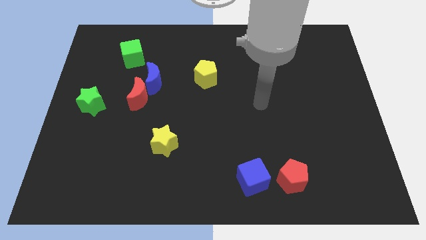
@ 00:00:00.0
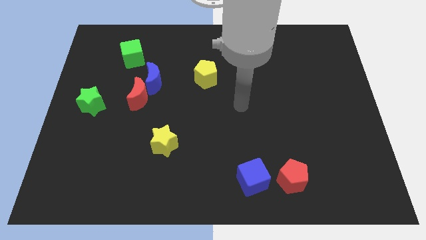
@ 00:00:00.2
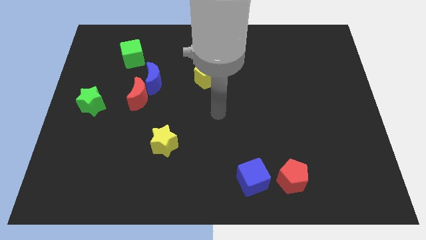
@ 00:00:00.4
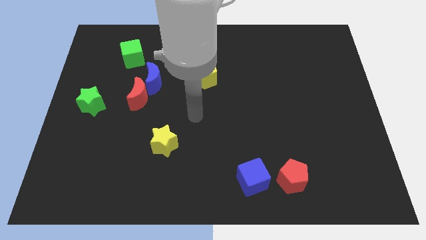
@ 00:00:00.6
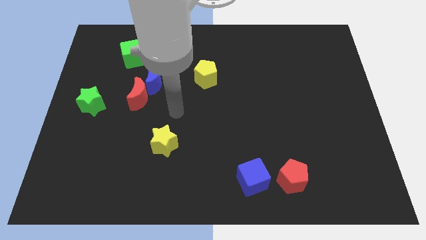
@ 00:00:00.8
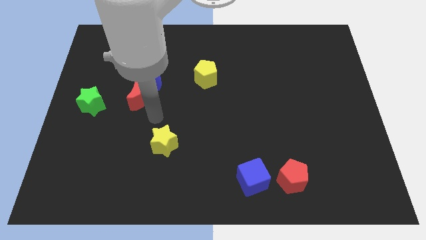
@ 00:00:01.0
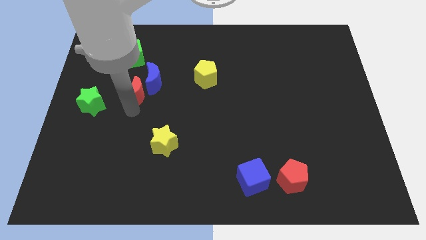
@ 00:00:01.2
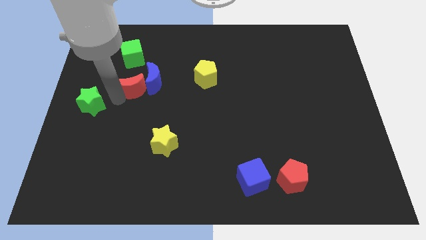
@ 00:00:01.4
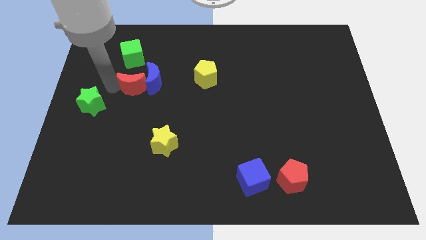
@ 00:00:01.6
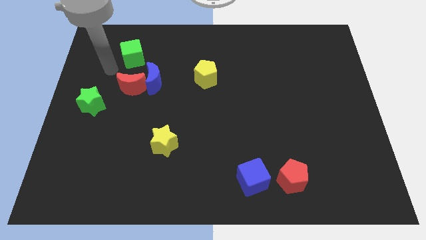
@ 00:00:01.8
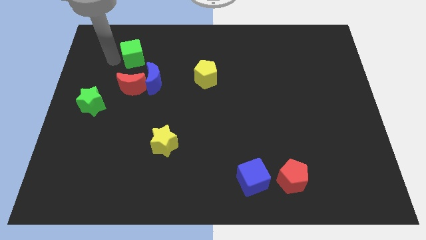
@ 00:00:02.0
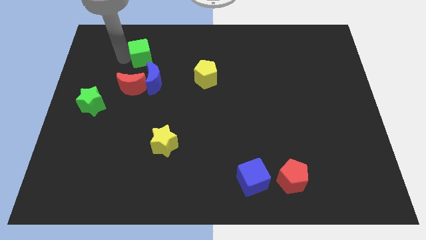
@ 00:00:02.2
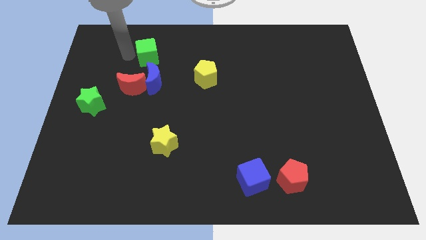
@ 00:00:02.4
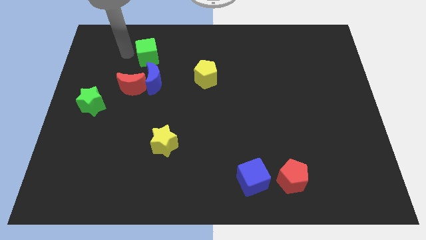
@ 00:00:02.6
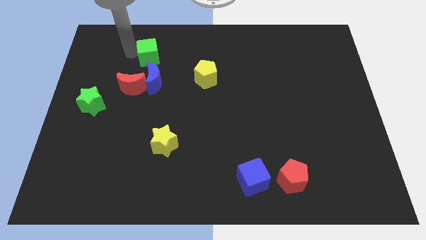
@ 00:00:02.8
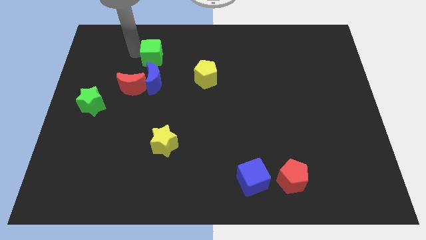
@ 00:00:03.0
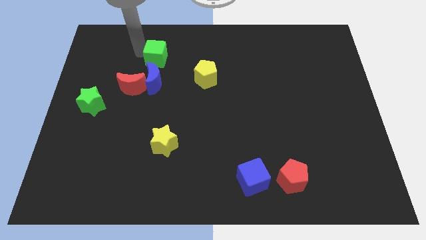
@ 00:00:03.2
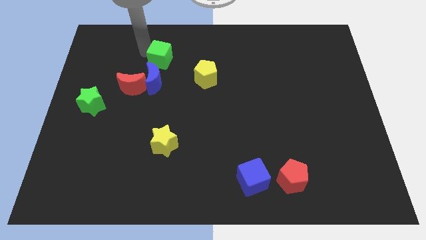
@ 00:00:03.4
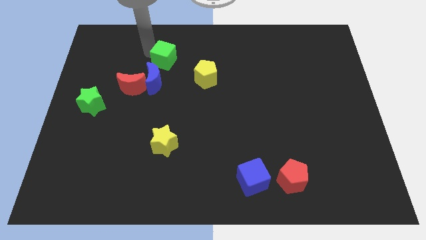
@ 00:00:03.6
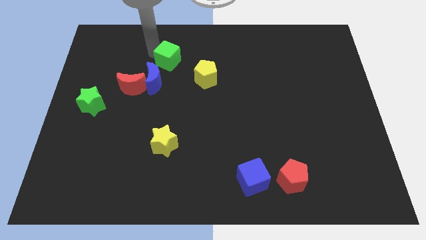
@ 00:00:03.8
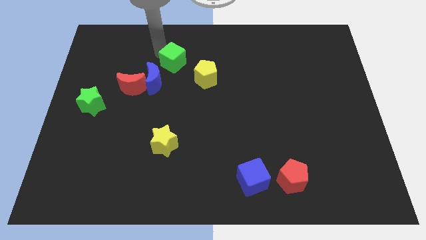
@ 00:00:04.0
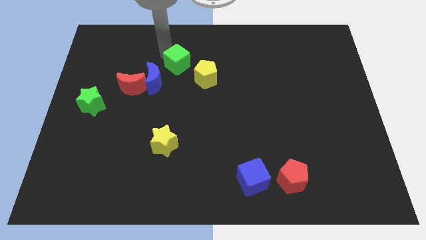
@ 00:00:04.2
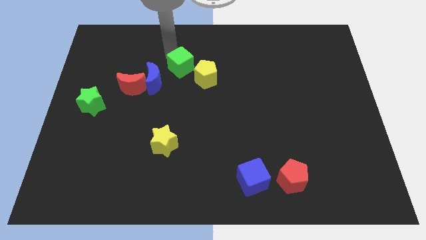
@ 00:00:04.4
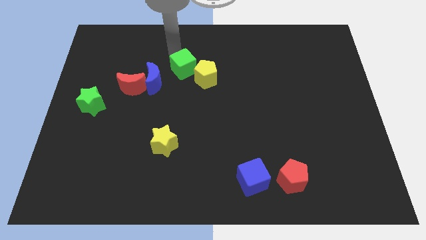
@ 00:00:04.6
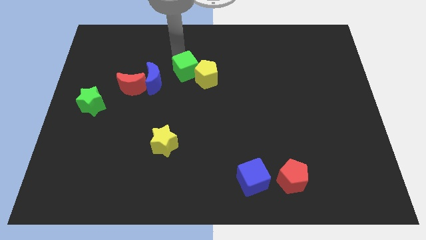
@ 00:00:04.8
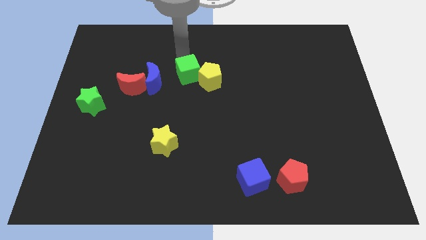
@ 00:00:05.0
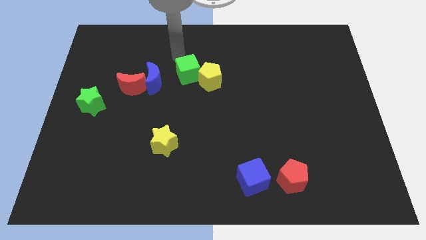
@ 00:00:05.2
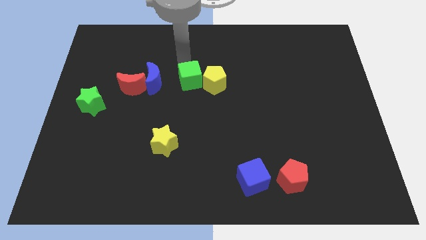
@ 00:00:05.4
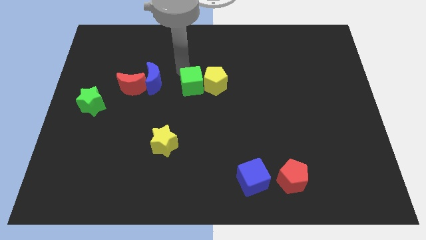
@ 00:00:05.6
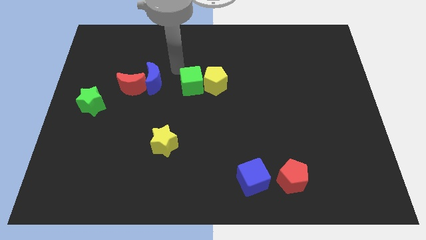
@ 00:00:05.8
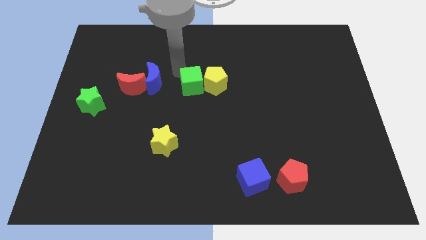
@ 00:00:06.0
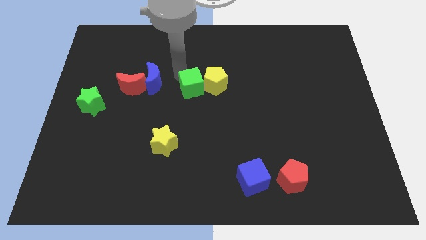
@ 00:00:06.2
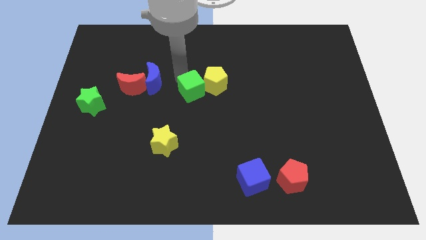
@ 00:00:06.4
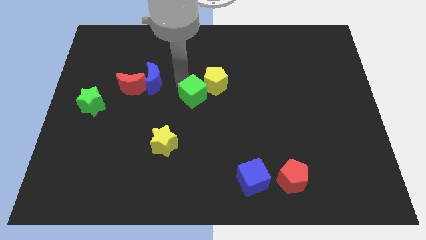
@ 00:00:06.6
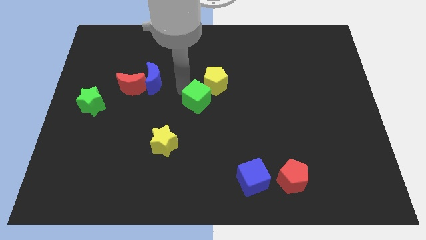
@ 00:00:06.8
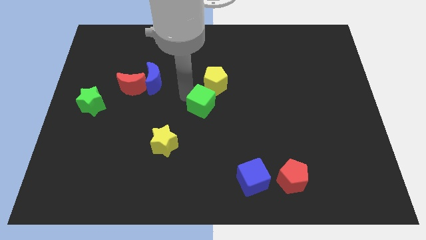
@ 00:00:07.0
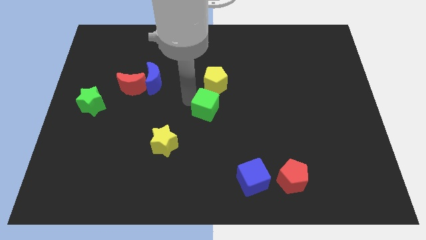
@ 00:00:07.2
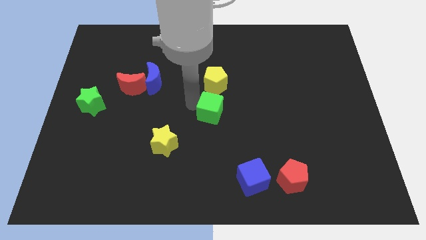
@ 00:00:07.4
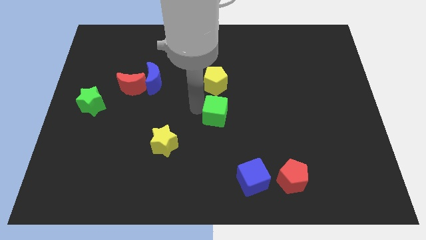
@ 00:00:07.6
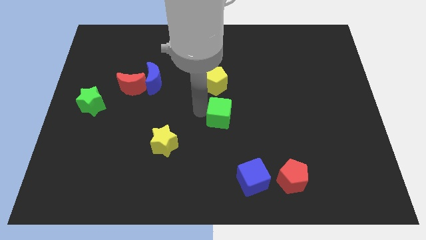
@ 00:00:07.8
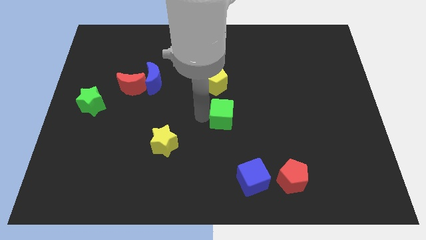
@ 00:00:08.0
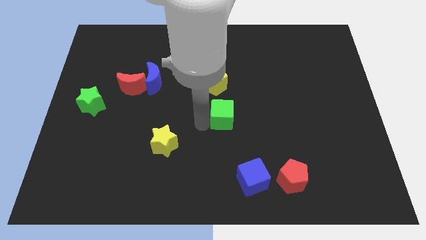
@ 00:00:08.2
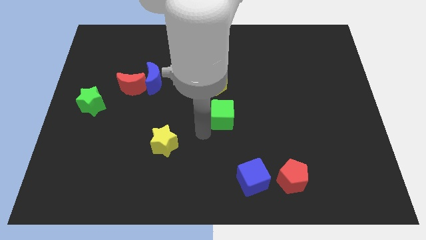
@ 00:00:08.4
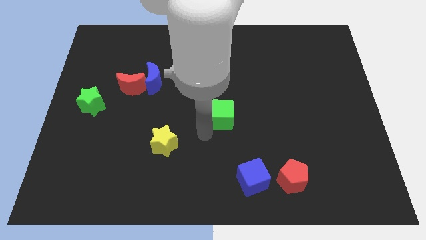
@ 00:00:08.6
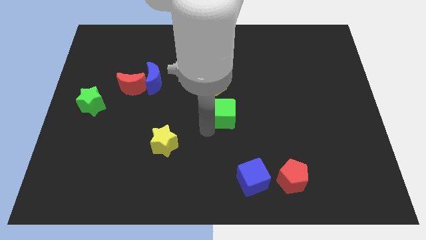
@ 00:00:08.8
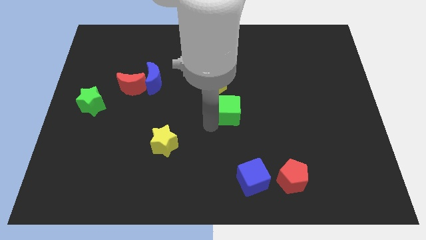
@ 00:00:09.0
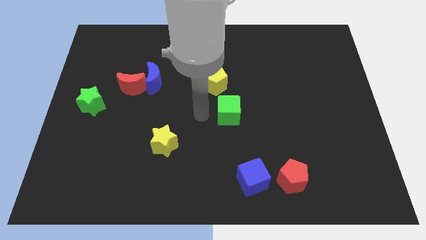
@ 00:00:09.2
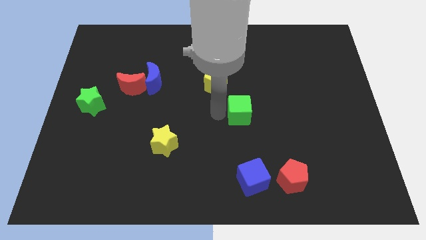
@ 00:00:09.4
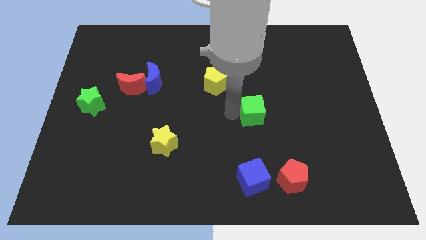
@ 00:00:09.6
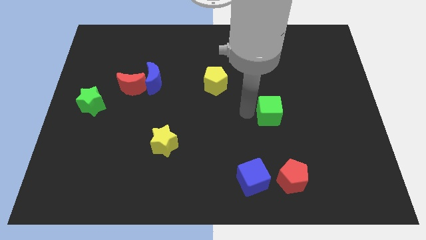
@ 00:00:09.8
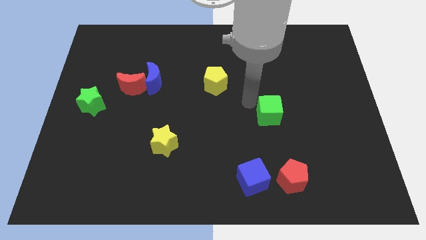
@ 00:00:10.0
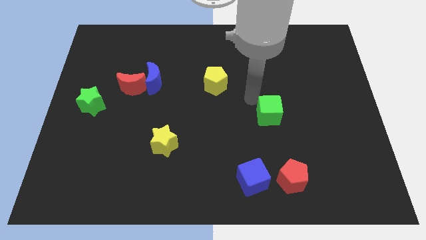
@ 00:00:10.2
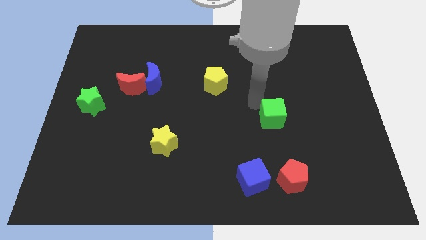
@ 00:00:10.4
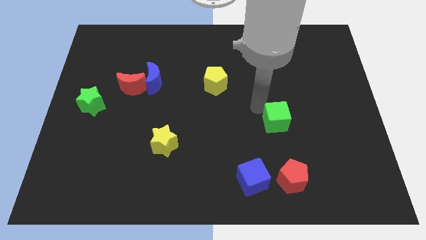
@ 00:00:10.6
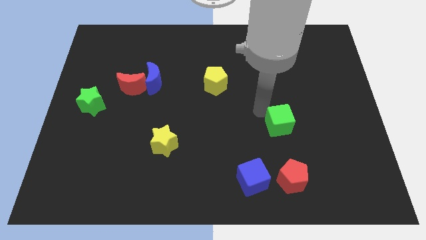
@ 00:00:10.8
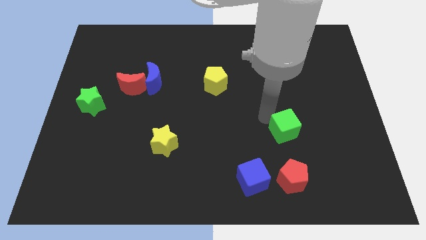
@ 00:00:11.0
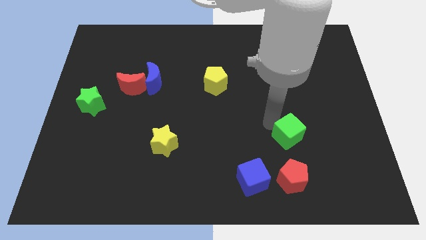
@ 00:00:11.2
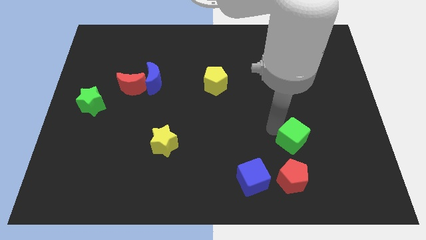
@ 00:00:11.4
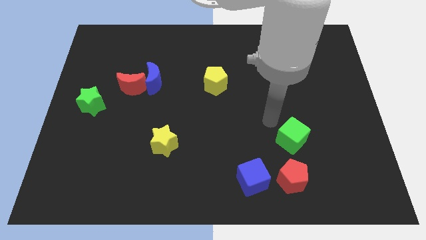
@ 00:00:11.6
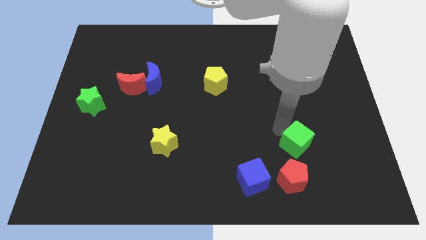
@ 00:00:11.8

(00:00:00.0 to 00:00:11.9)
put the green cube to the top right side of the red pentagon

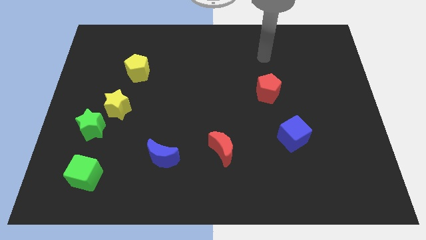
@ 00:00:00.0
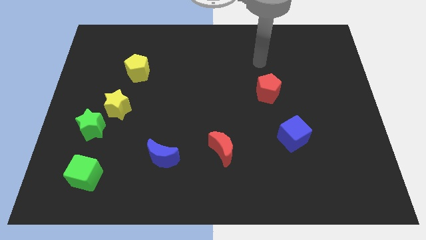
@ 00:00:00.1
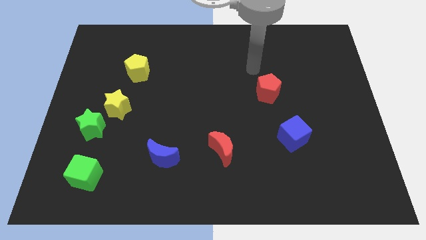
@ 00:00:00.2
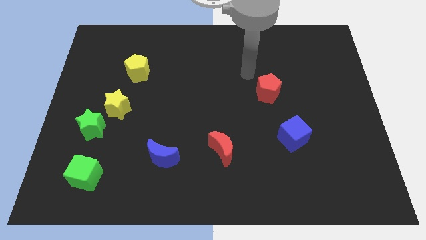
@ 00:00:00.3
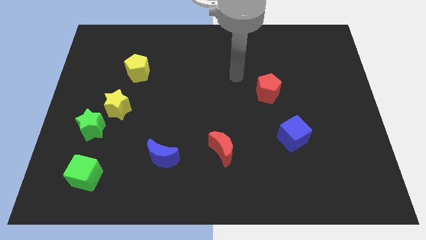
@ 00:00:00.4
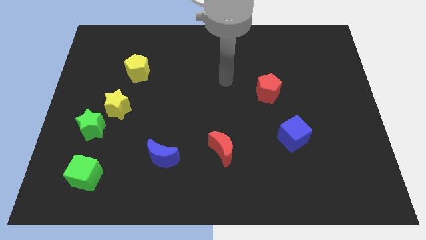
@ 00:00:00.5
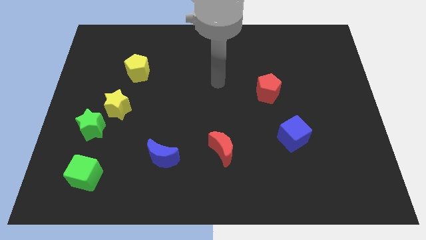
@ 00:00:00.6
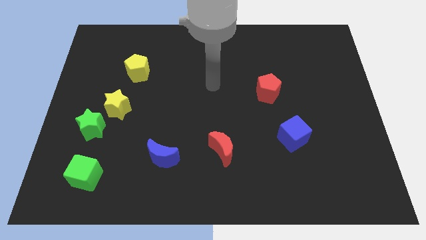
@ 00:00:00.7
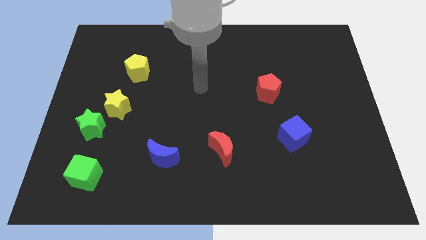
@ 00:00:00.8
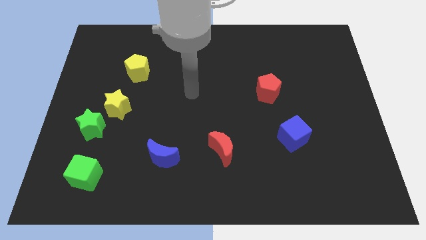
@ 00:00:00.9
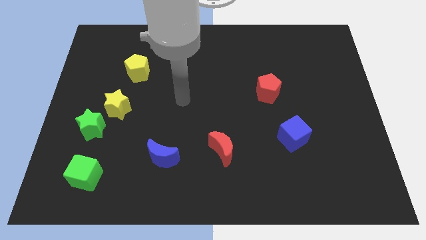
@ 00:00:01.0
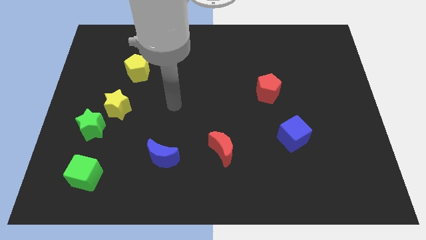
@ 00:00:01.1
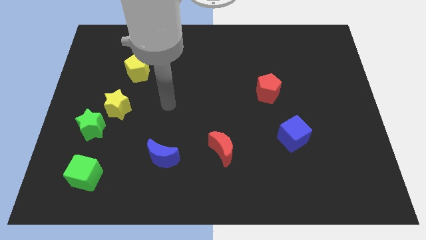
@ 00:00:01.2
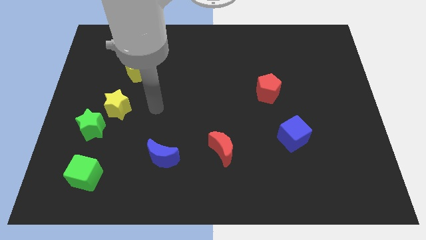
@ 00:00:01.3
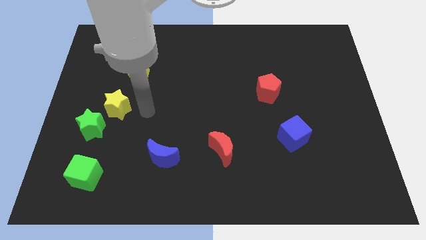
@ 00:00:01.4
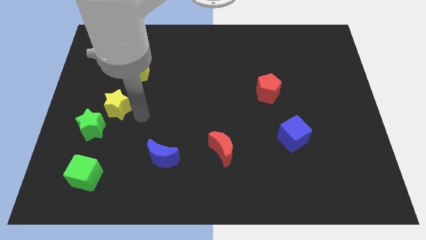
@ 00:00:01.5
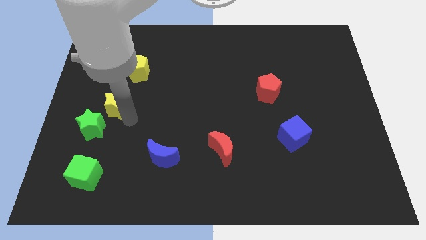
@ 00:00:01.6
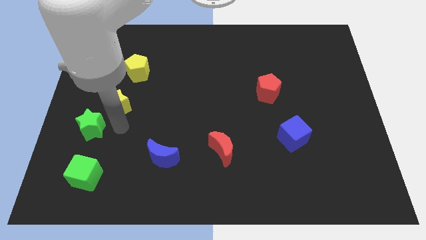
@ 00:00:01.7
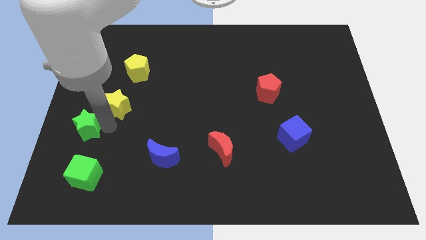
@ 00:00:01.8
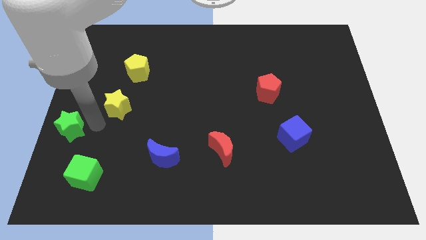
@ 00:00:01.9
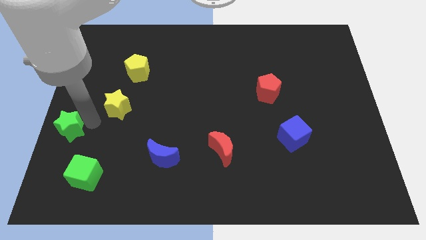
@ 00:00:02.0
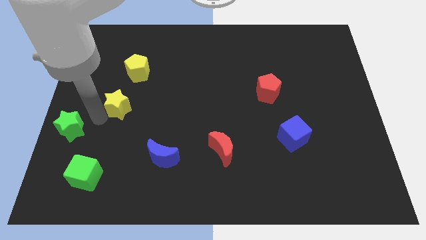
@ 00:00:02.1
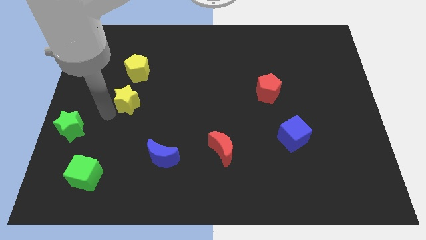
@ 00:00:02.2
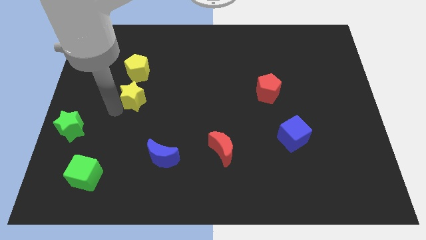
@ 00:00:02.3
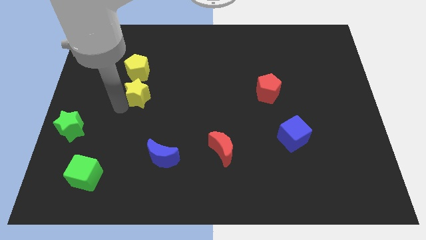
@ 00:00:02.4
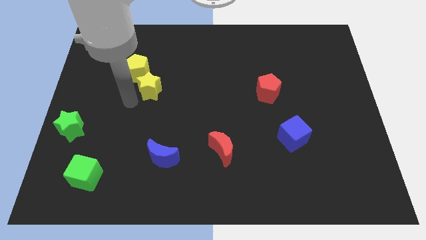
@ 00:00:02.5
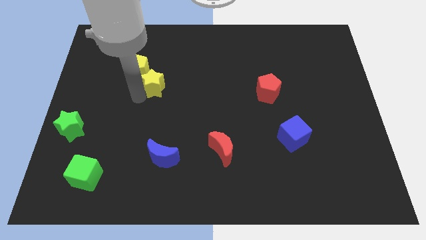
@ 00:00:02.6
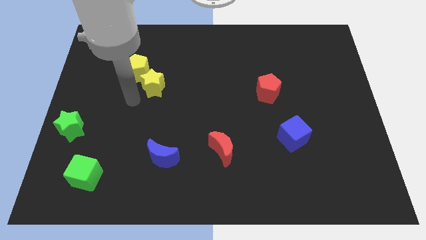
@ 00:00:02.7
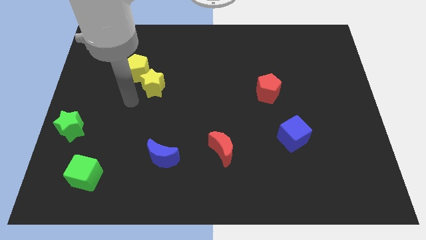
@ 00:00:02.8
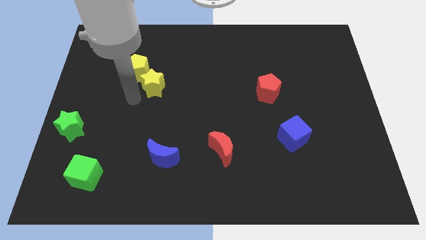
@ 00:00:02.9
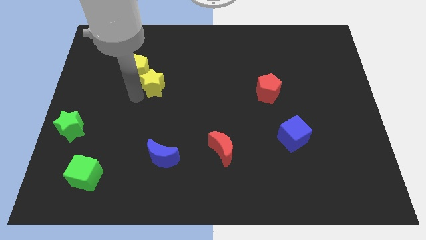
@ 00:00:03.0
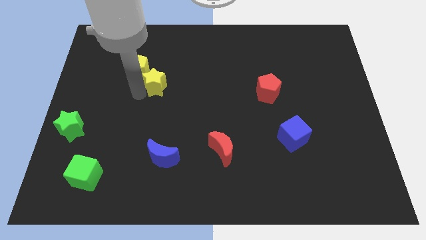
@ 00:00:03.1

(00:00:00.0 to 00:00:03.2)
move the yellow star to the right side of the yellow pentagon
